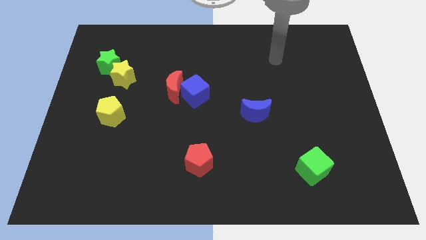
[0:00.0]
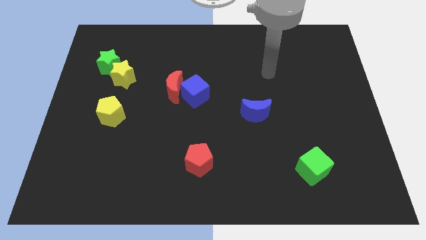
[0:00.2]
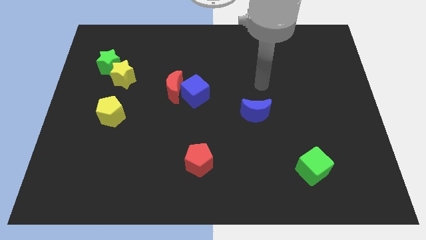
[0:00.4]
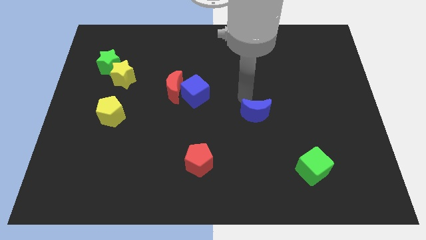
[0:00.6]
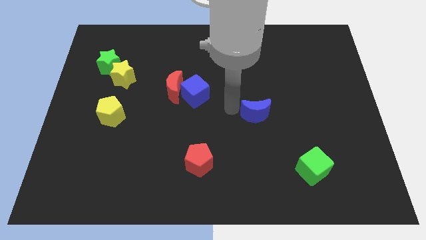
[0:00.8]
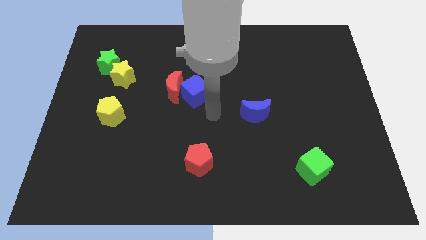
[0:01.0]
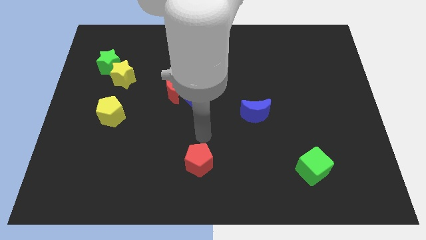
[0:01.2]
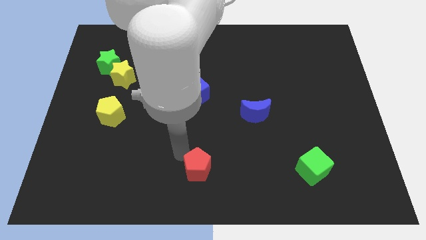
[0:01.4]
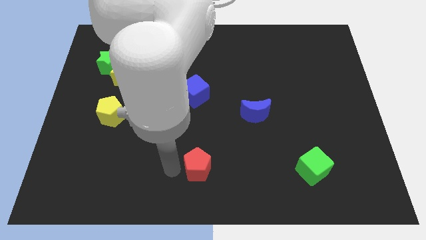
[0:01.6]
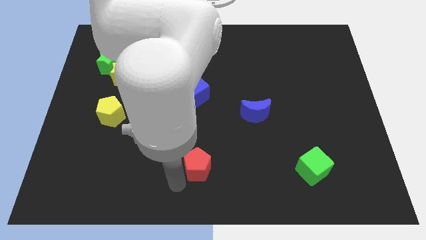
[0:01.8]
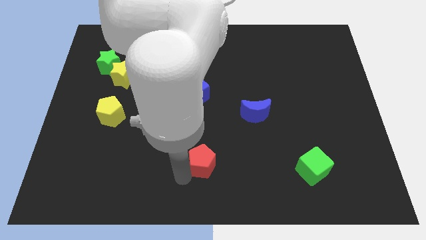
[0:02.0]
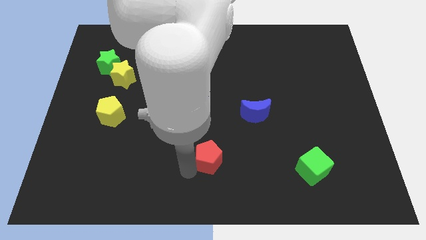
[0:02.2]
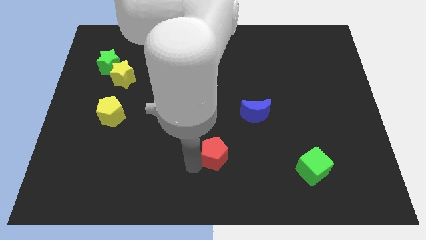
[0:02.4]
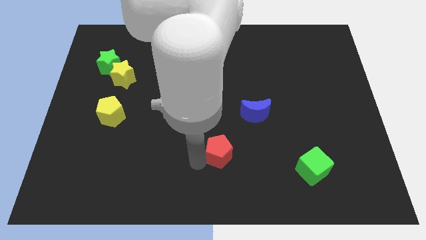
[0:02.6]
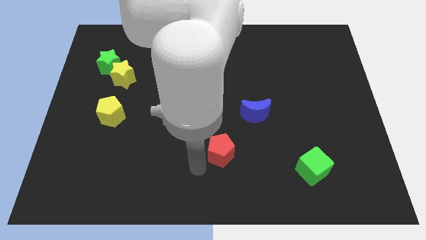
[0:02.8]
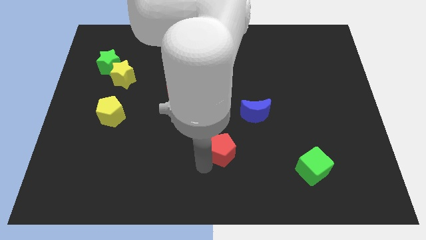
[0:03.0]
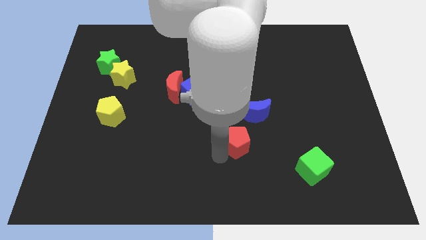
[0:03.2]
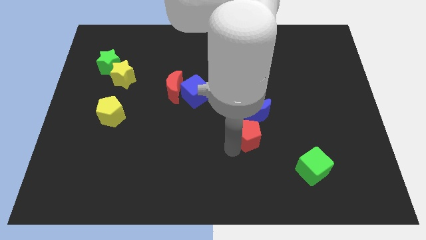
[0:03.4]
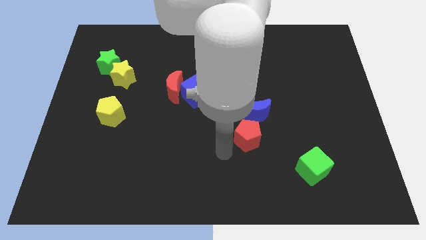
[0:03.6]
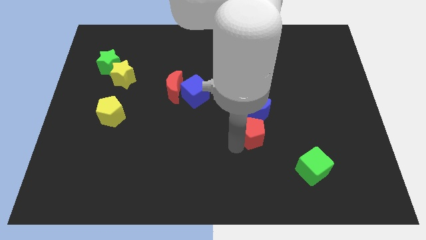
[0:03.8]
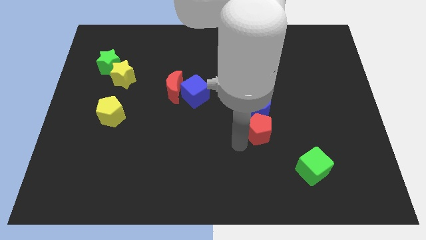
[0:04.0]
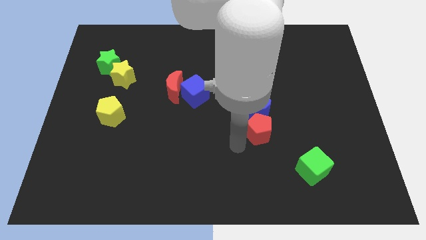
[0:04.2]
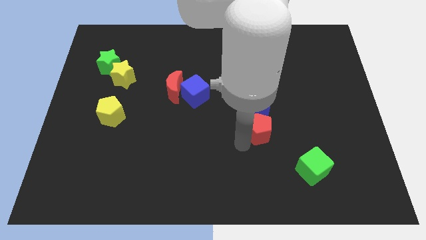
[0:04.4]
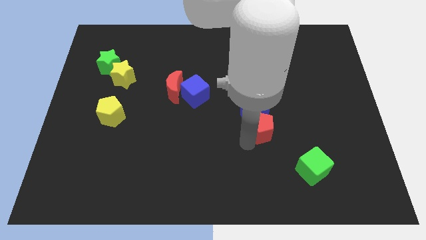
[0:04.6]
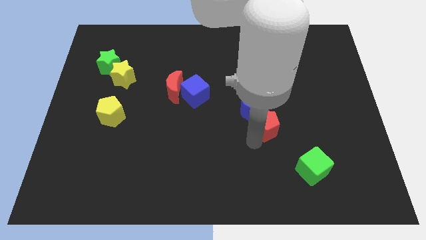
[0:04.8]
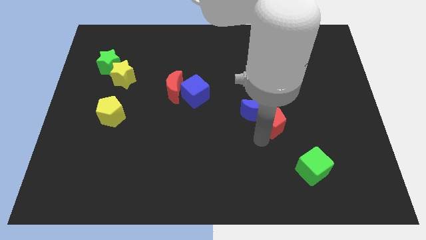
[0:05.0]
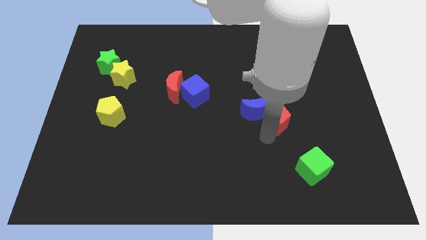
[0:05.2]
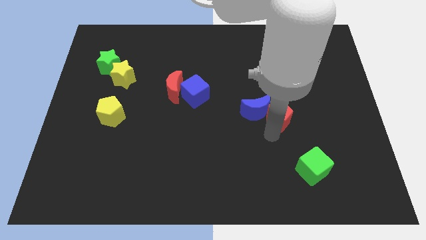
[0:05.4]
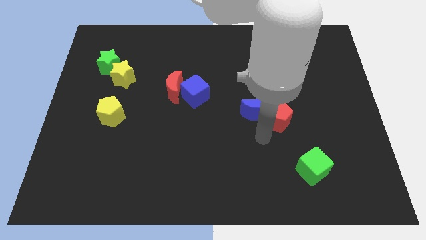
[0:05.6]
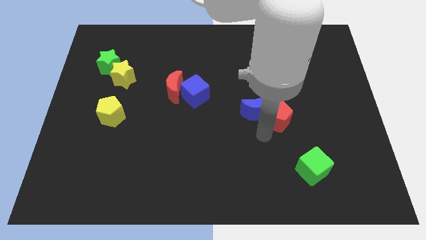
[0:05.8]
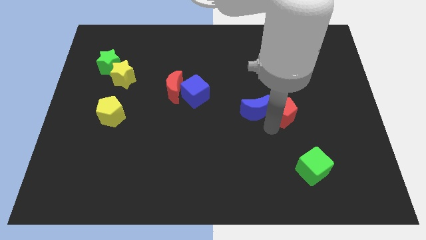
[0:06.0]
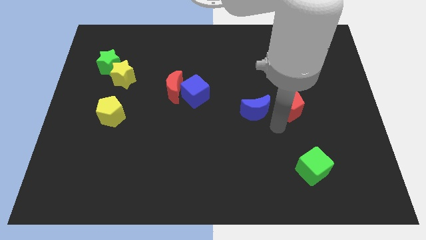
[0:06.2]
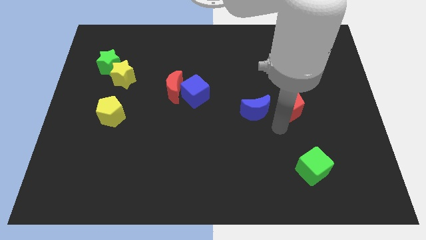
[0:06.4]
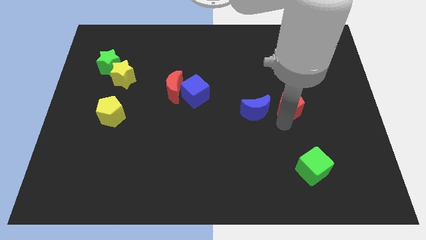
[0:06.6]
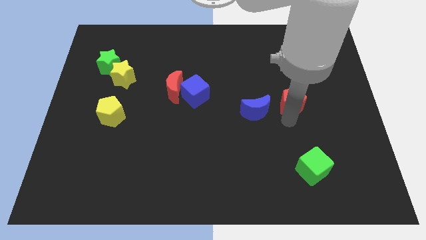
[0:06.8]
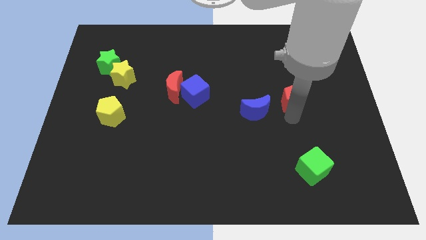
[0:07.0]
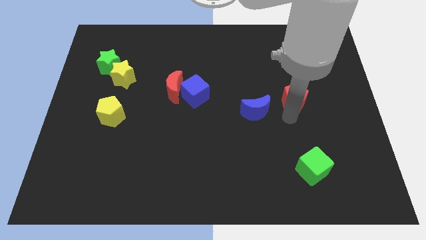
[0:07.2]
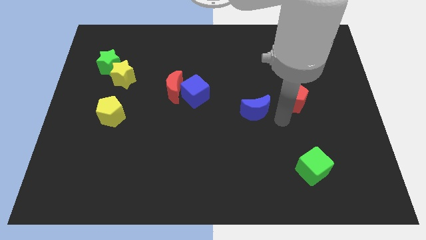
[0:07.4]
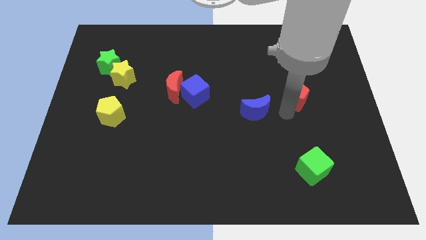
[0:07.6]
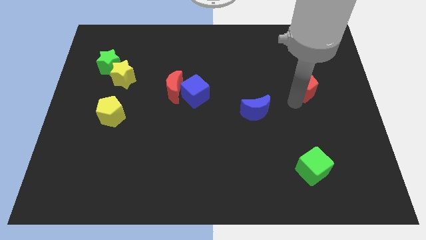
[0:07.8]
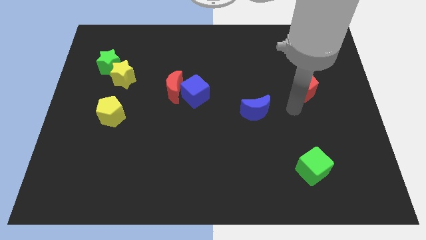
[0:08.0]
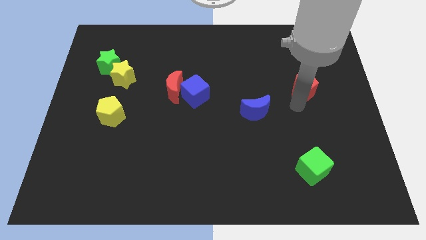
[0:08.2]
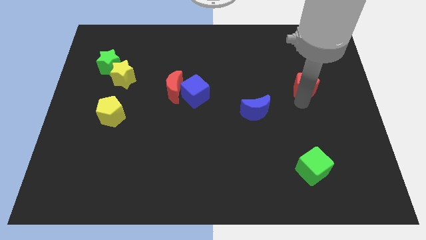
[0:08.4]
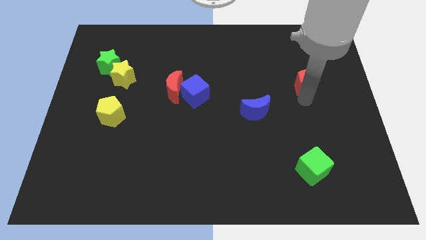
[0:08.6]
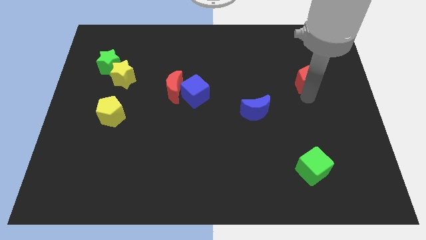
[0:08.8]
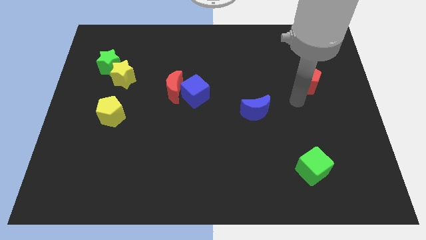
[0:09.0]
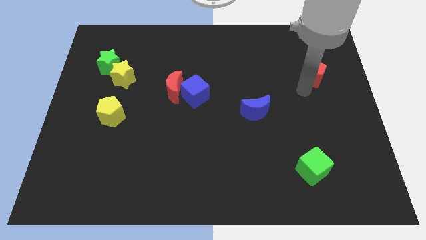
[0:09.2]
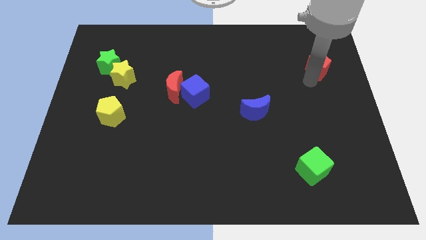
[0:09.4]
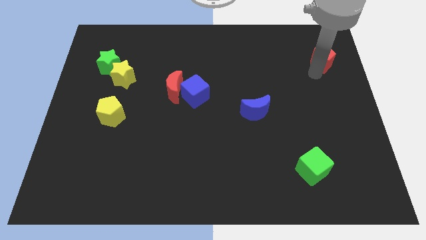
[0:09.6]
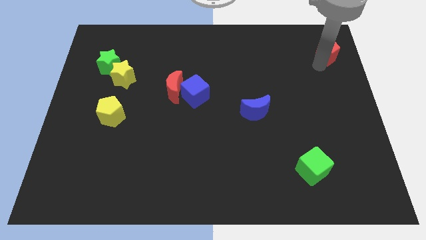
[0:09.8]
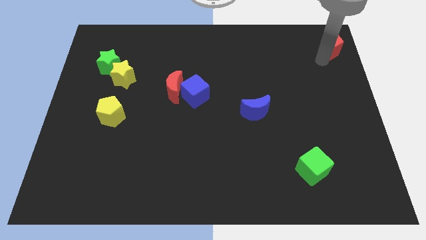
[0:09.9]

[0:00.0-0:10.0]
put the red pentagon to the top right of the board

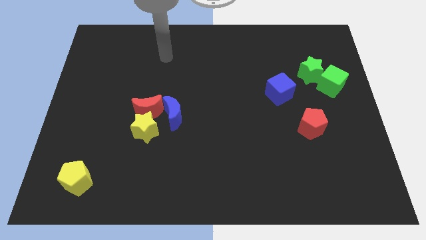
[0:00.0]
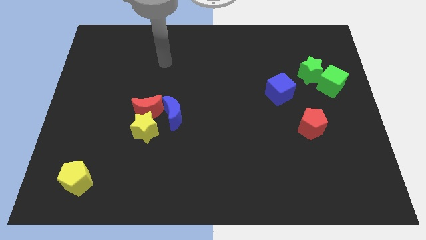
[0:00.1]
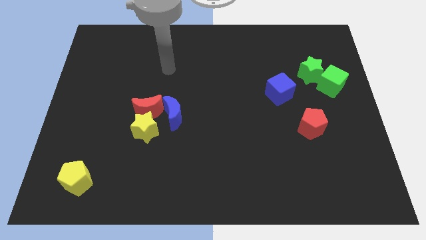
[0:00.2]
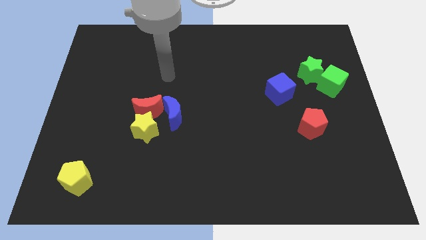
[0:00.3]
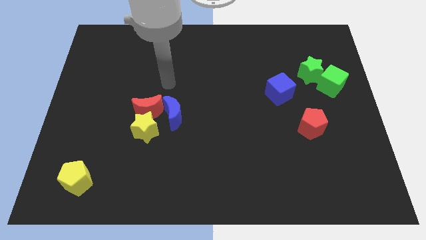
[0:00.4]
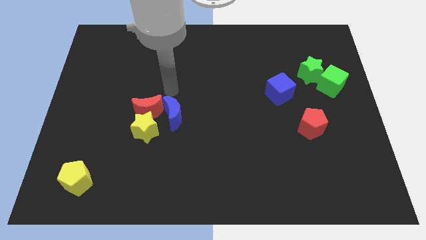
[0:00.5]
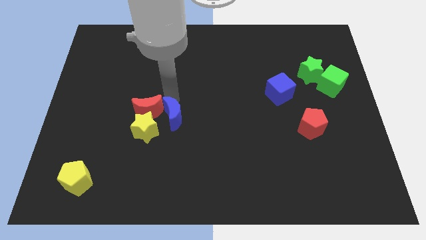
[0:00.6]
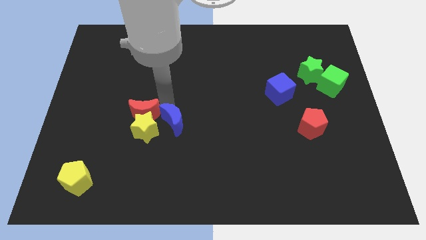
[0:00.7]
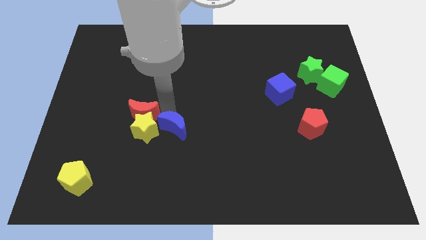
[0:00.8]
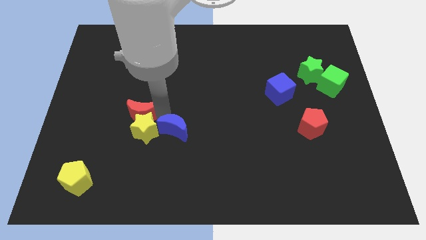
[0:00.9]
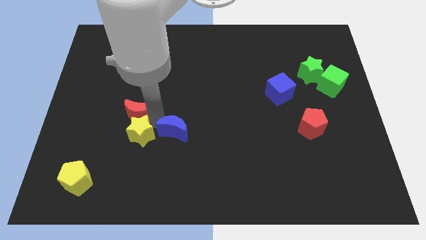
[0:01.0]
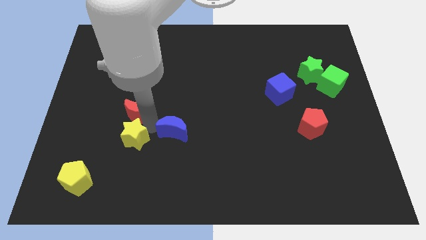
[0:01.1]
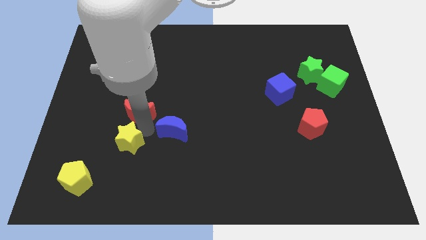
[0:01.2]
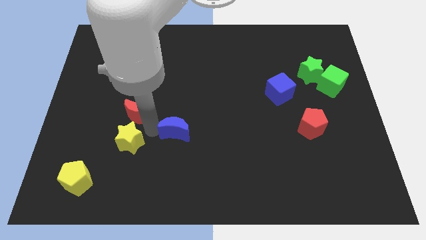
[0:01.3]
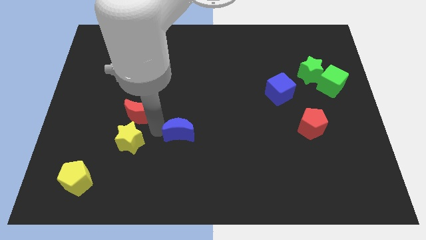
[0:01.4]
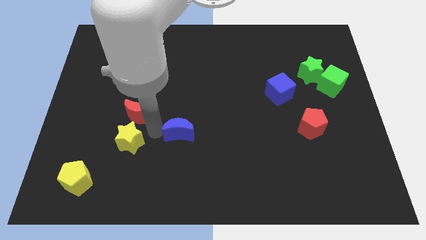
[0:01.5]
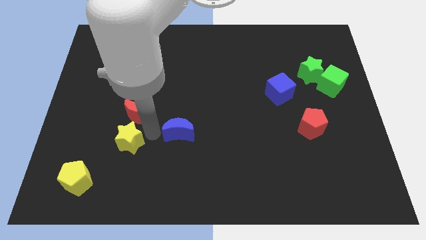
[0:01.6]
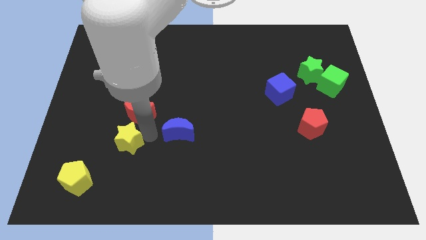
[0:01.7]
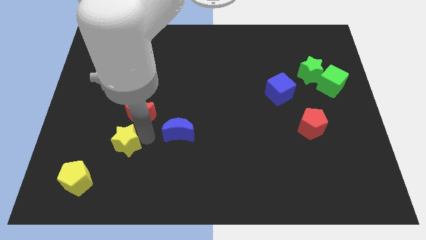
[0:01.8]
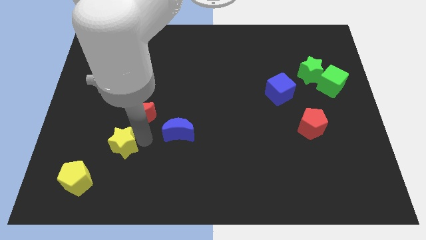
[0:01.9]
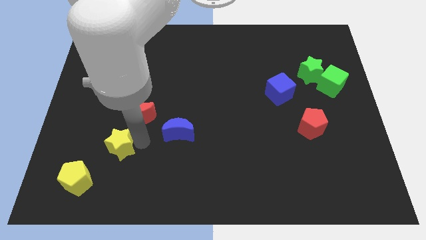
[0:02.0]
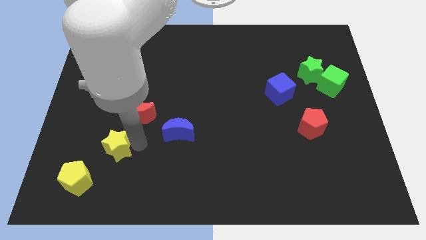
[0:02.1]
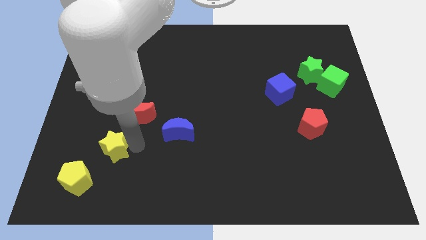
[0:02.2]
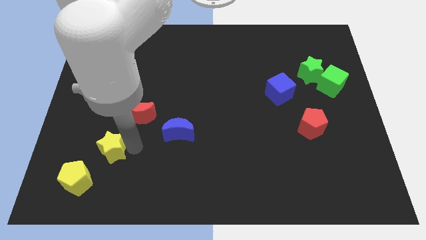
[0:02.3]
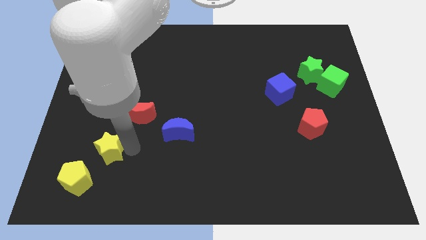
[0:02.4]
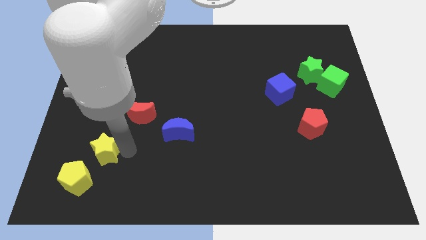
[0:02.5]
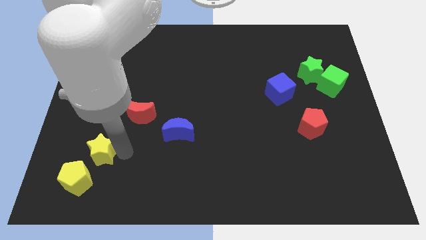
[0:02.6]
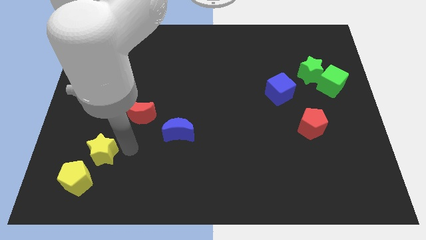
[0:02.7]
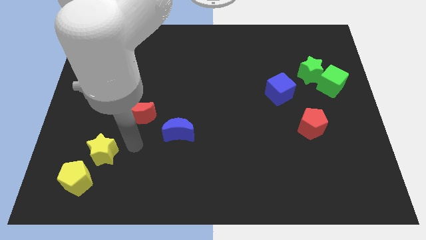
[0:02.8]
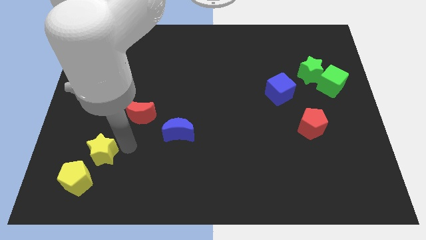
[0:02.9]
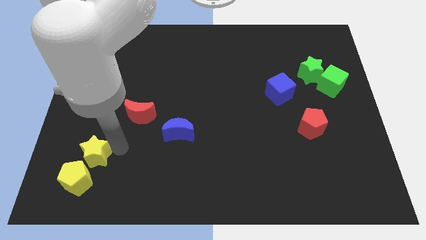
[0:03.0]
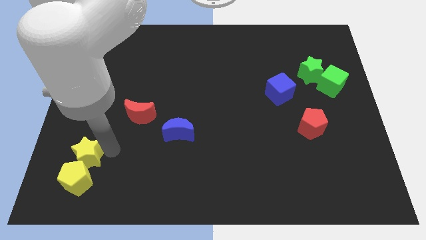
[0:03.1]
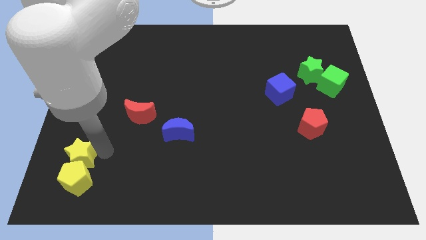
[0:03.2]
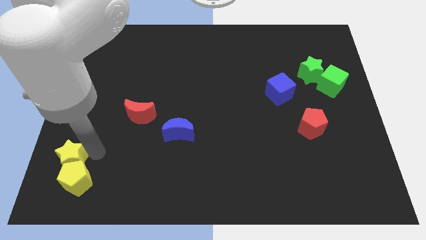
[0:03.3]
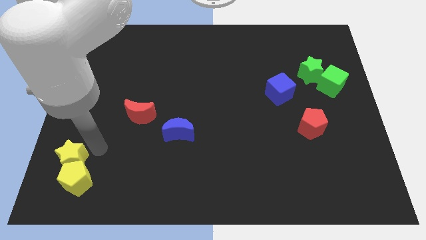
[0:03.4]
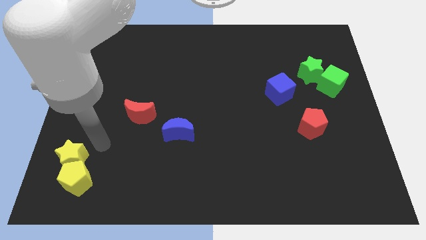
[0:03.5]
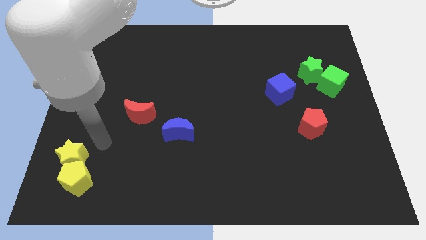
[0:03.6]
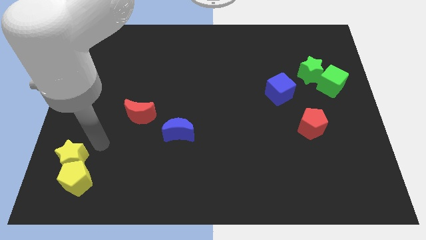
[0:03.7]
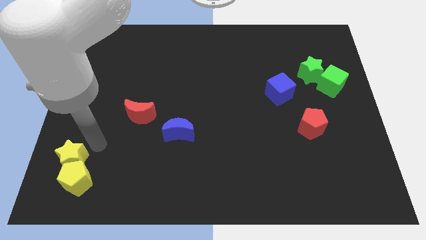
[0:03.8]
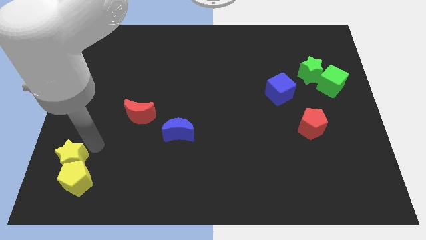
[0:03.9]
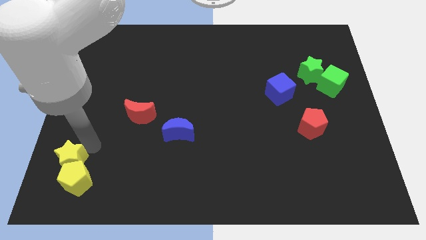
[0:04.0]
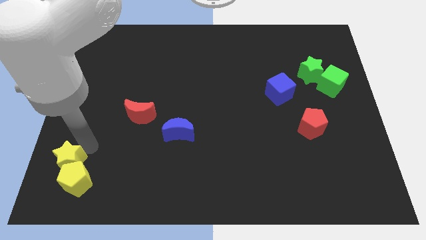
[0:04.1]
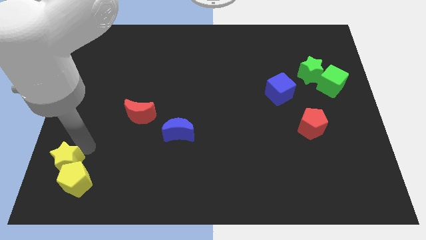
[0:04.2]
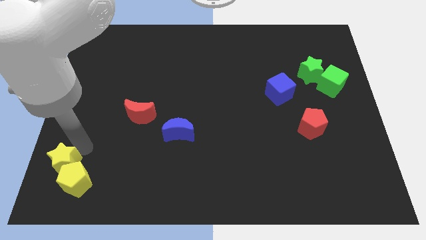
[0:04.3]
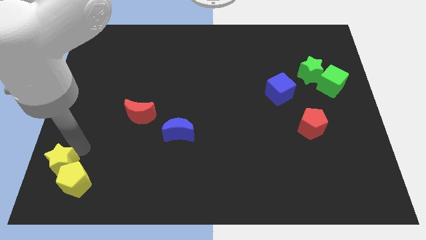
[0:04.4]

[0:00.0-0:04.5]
slide the yellow star to the bottom left
